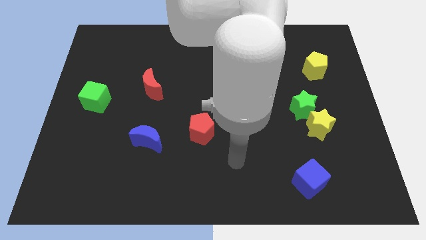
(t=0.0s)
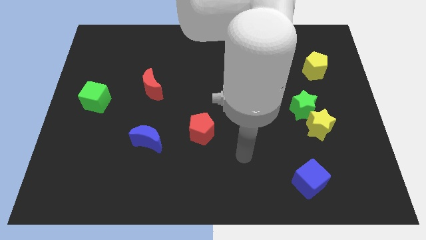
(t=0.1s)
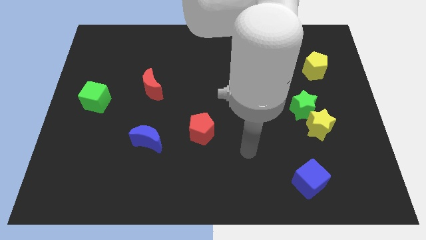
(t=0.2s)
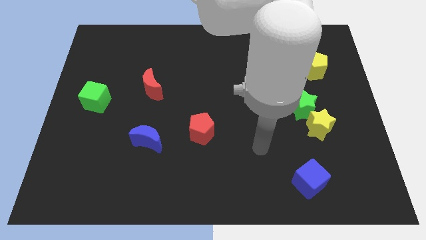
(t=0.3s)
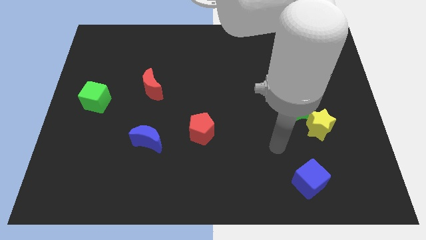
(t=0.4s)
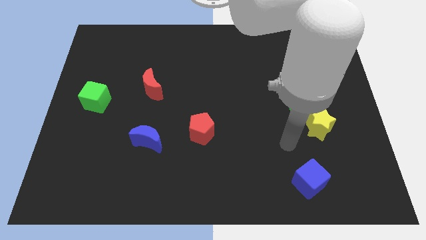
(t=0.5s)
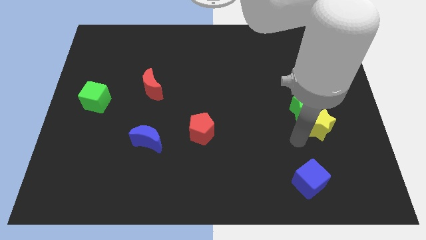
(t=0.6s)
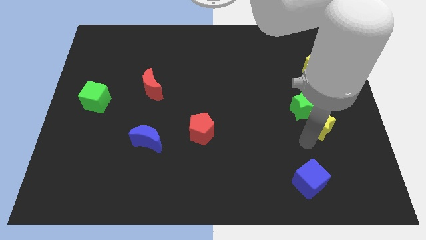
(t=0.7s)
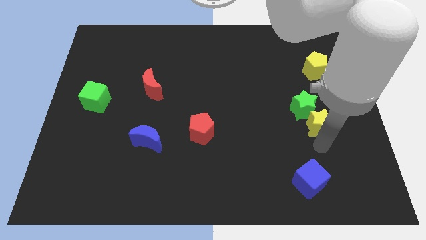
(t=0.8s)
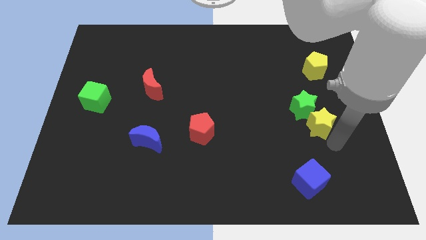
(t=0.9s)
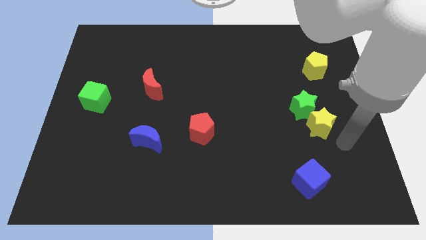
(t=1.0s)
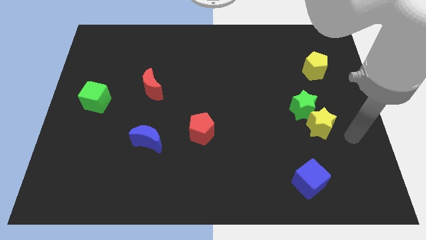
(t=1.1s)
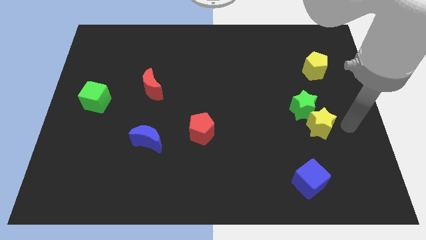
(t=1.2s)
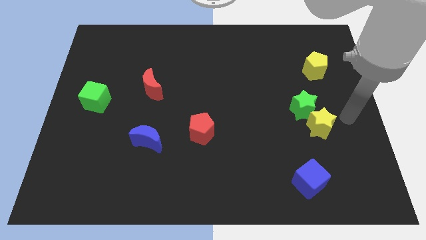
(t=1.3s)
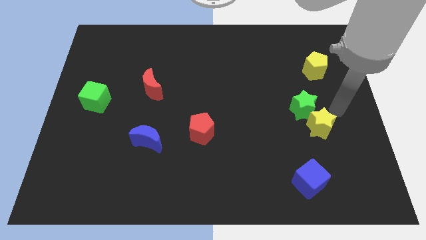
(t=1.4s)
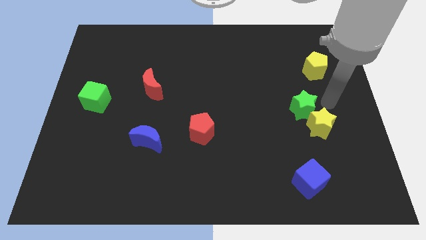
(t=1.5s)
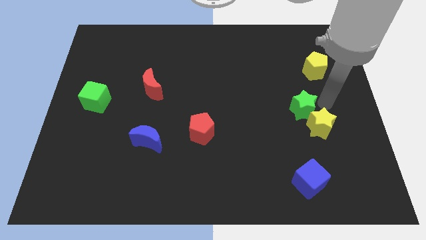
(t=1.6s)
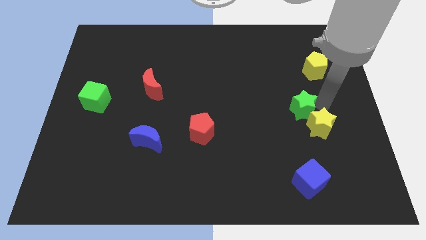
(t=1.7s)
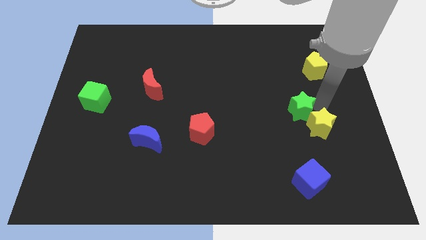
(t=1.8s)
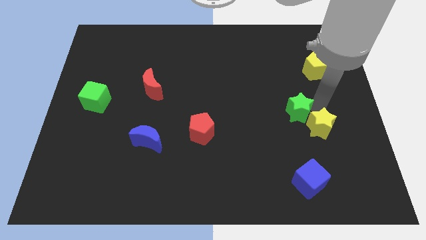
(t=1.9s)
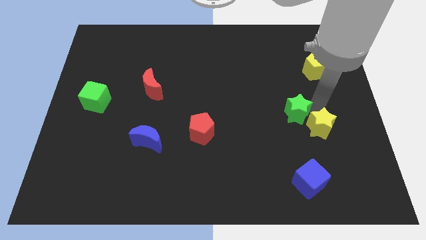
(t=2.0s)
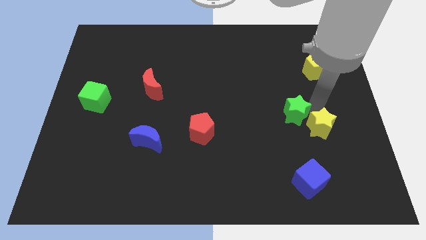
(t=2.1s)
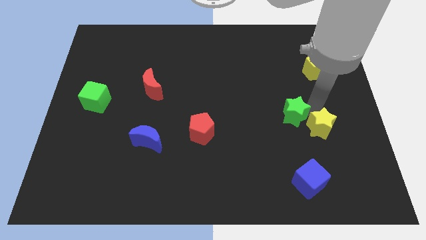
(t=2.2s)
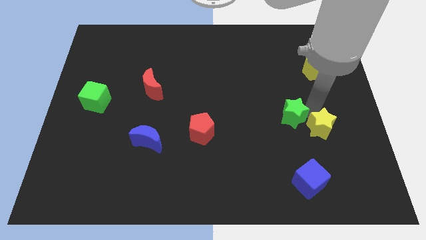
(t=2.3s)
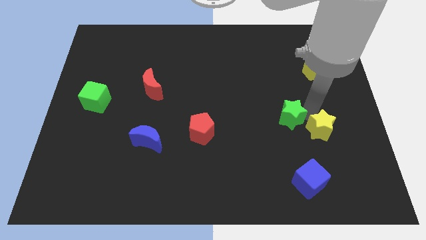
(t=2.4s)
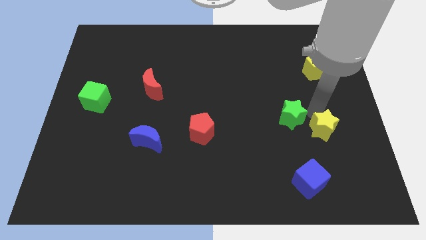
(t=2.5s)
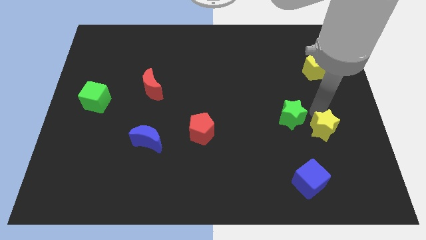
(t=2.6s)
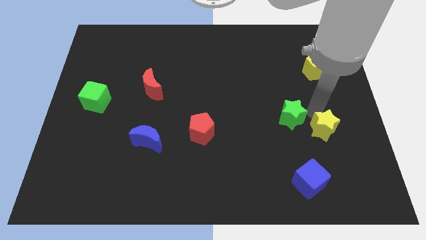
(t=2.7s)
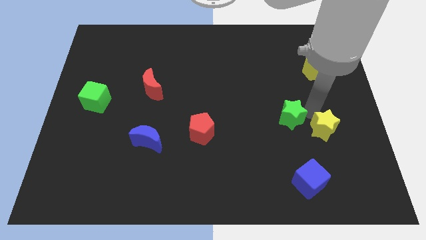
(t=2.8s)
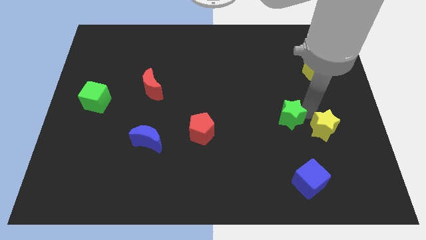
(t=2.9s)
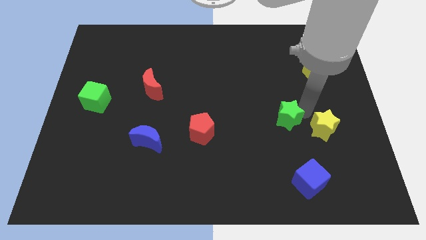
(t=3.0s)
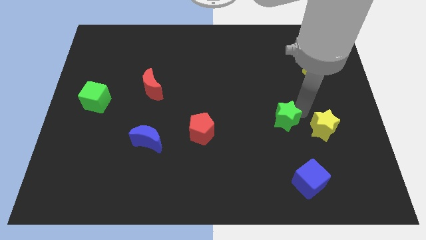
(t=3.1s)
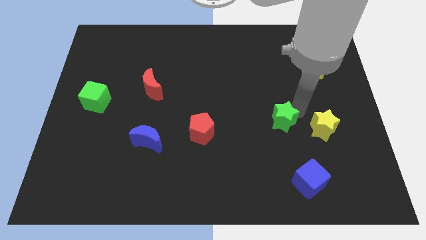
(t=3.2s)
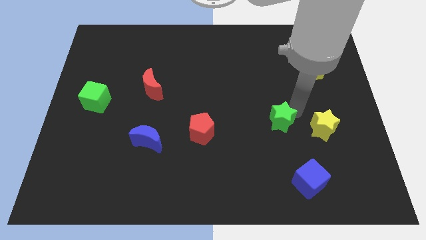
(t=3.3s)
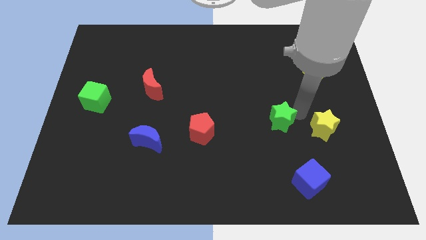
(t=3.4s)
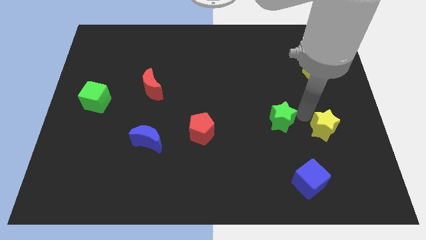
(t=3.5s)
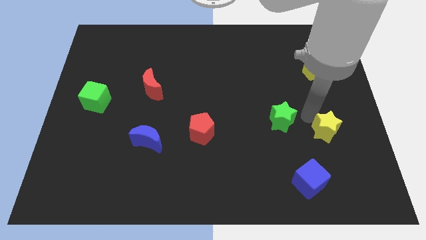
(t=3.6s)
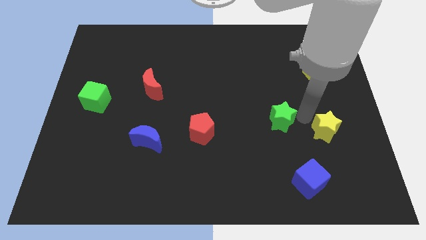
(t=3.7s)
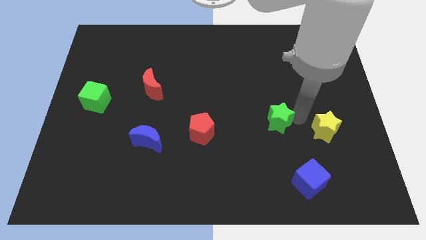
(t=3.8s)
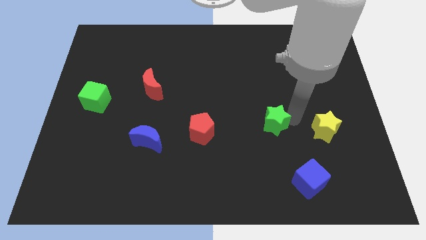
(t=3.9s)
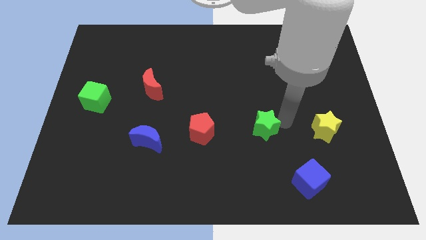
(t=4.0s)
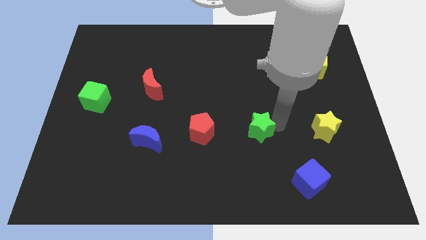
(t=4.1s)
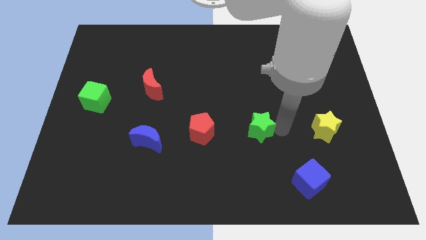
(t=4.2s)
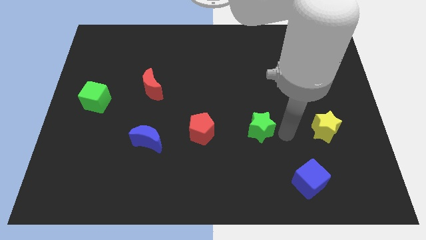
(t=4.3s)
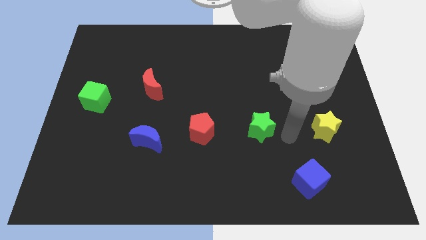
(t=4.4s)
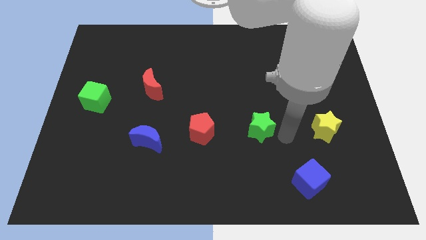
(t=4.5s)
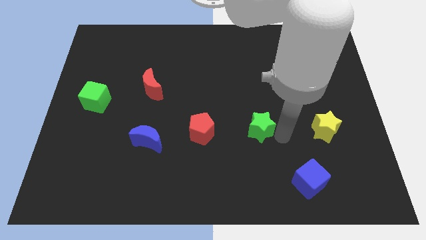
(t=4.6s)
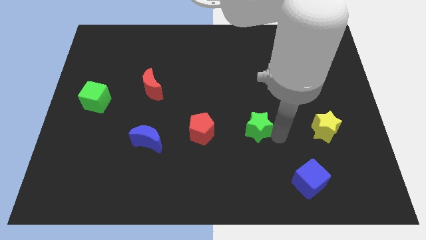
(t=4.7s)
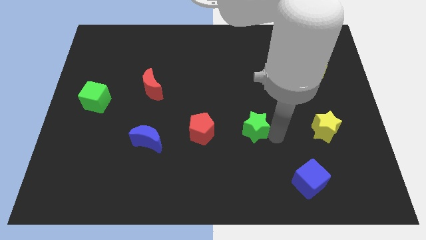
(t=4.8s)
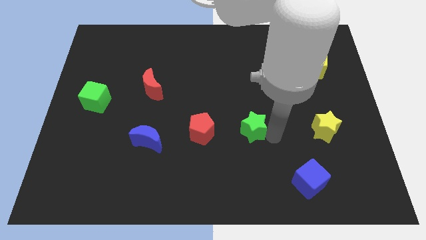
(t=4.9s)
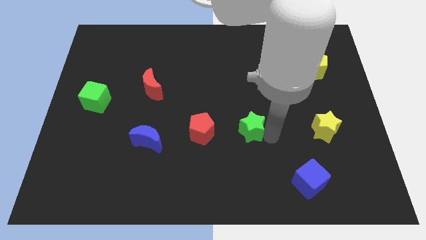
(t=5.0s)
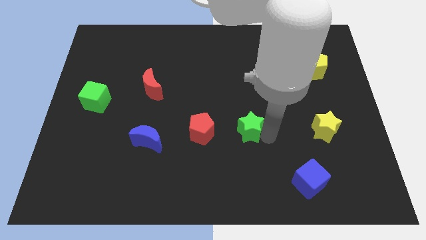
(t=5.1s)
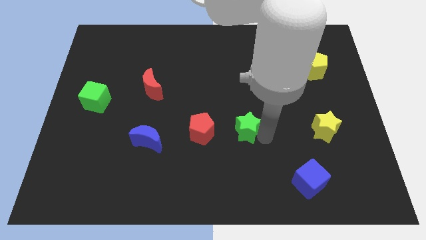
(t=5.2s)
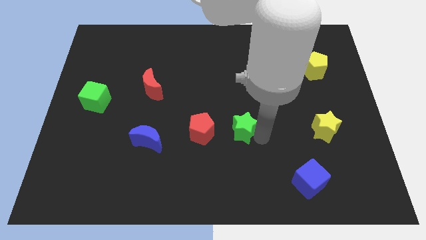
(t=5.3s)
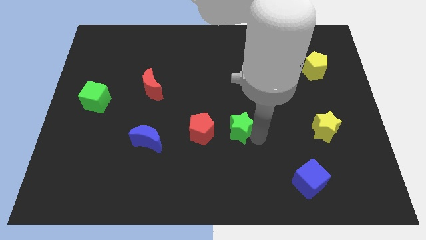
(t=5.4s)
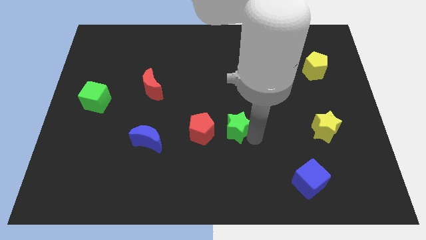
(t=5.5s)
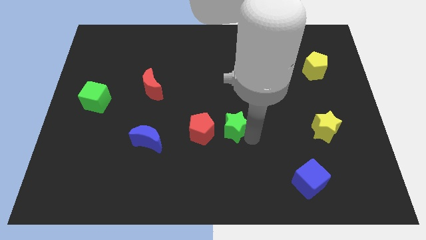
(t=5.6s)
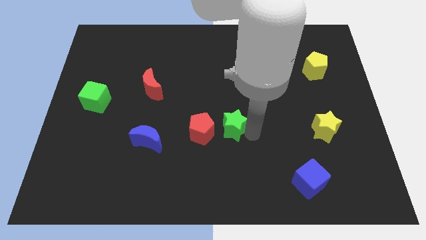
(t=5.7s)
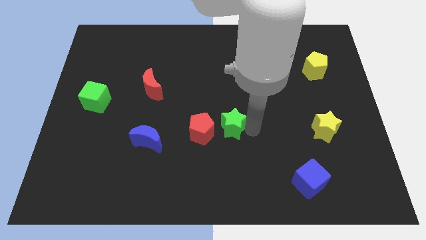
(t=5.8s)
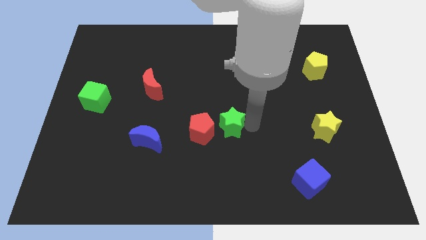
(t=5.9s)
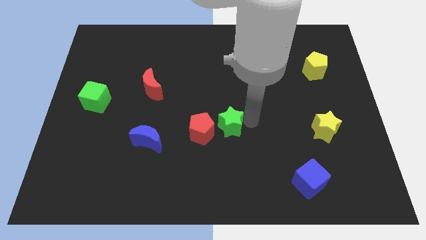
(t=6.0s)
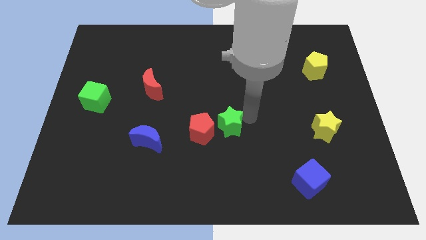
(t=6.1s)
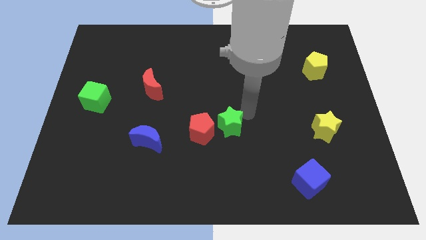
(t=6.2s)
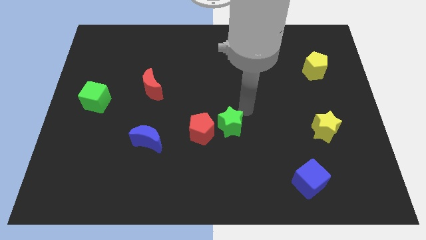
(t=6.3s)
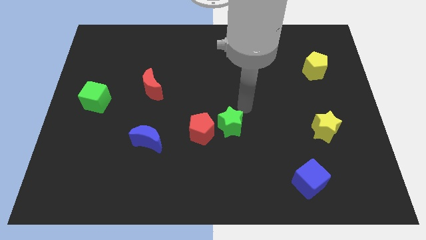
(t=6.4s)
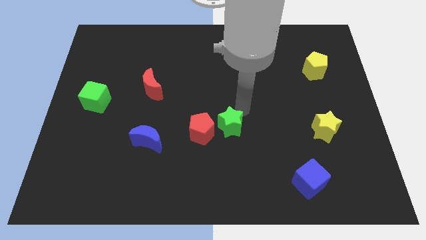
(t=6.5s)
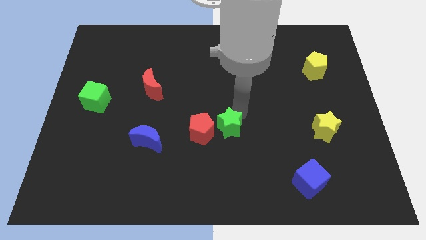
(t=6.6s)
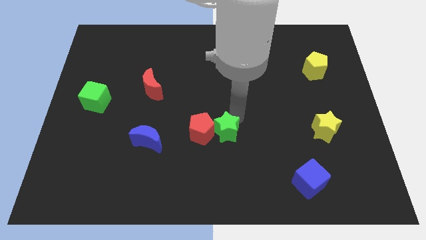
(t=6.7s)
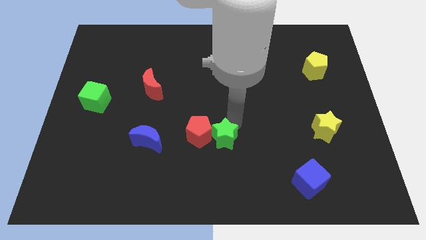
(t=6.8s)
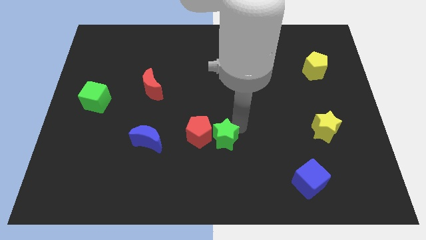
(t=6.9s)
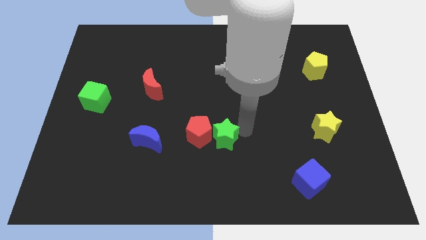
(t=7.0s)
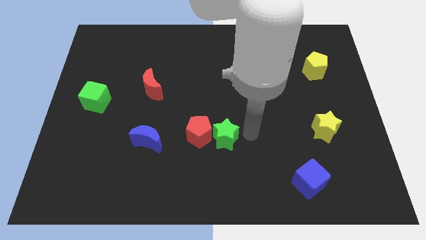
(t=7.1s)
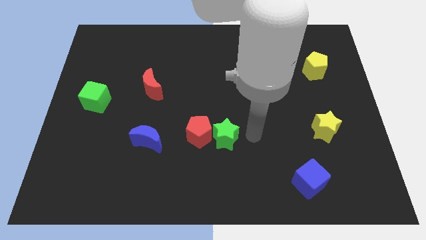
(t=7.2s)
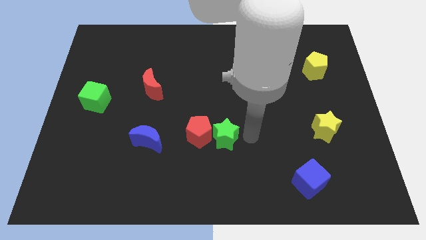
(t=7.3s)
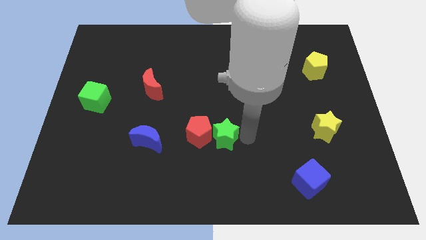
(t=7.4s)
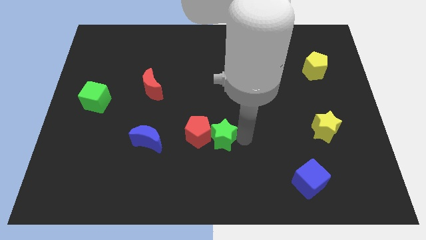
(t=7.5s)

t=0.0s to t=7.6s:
put the green star to the right of the blue moon
